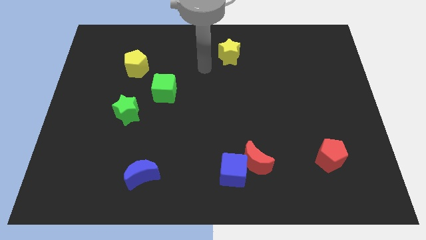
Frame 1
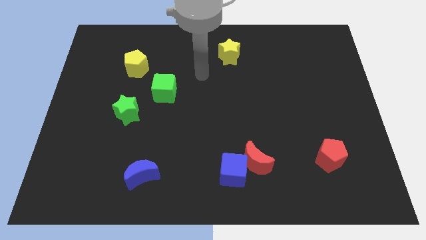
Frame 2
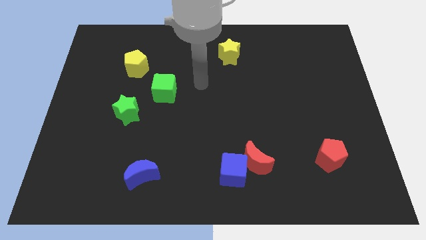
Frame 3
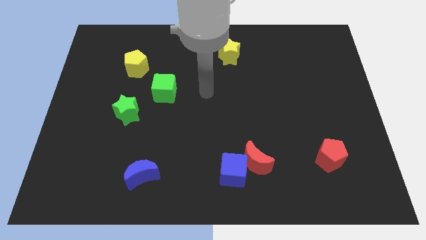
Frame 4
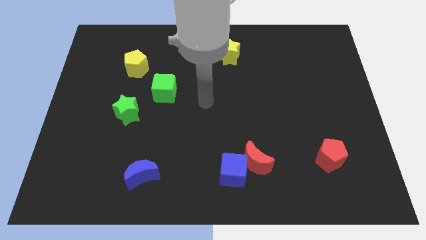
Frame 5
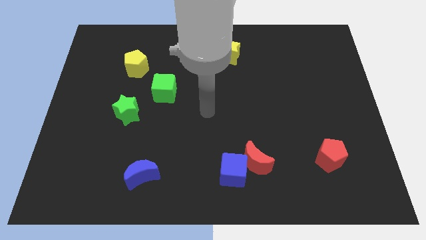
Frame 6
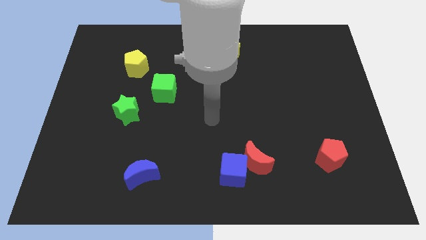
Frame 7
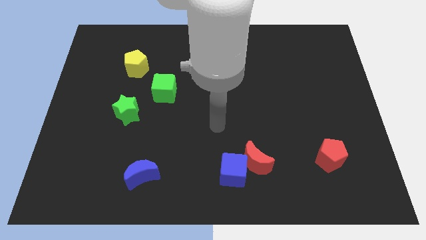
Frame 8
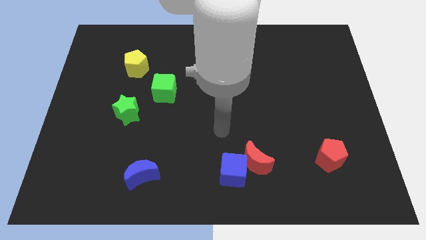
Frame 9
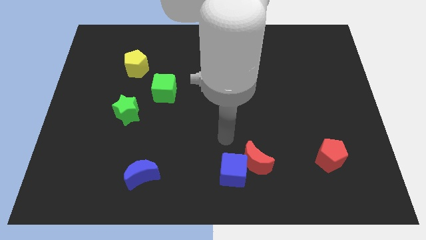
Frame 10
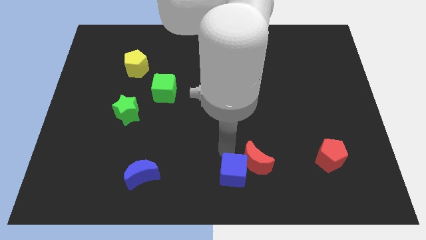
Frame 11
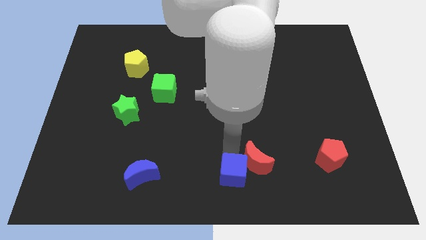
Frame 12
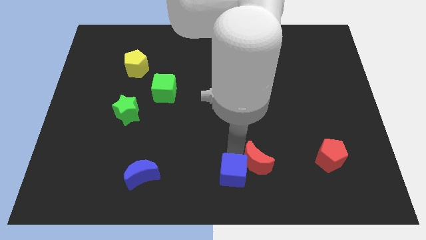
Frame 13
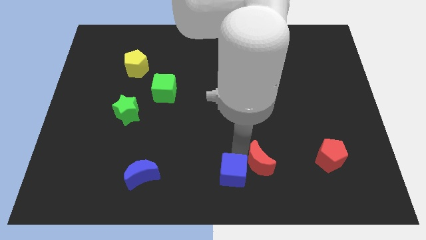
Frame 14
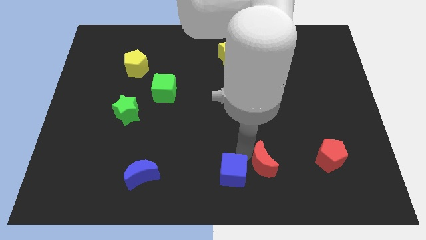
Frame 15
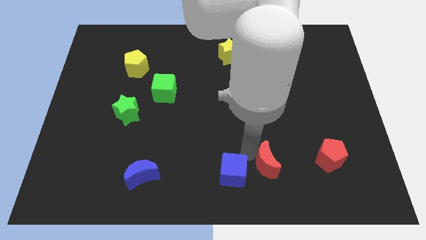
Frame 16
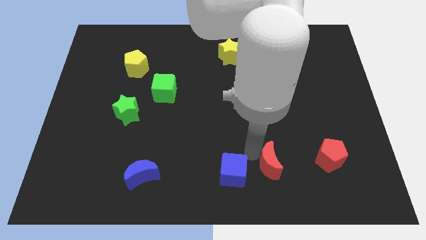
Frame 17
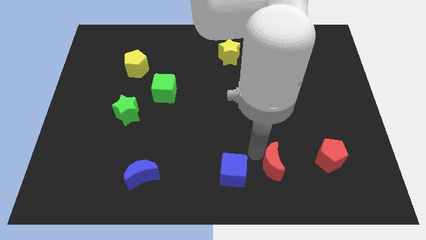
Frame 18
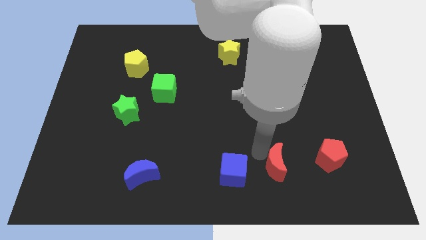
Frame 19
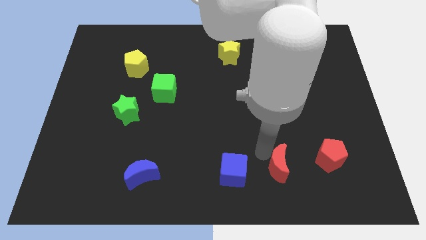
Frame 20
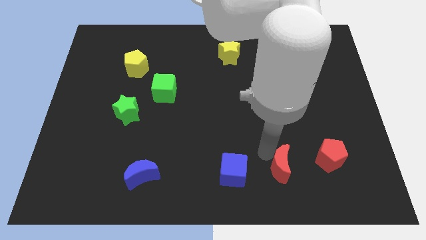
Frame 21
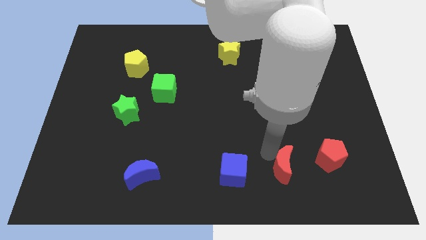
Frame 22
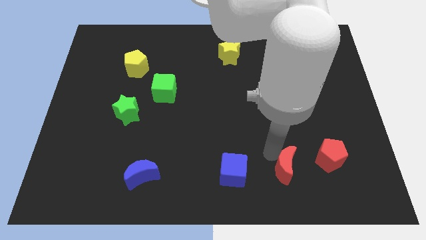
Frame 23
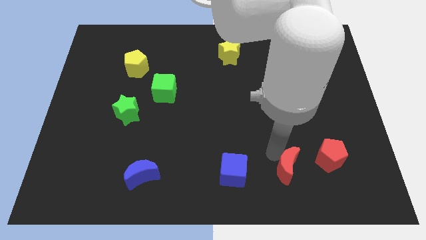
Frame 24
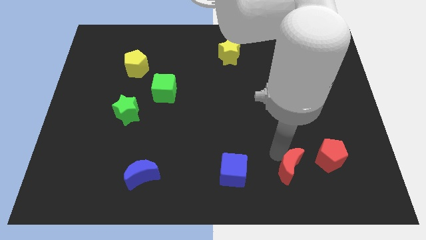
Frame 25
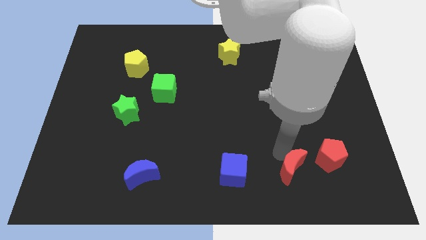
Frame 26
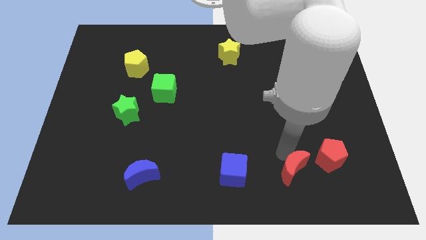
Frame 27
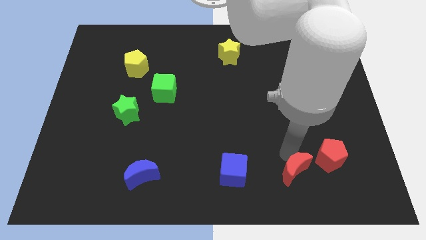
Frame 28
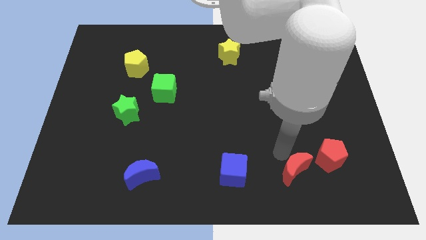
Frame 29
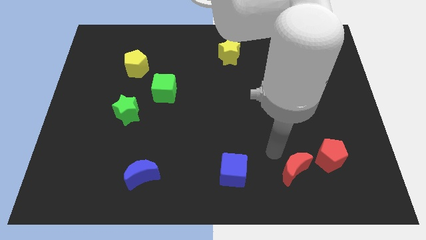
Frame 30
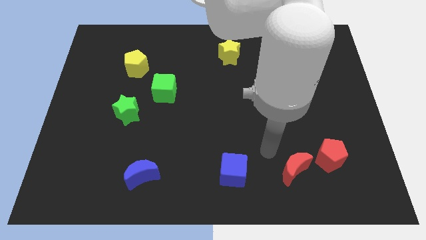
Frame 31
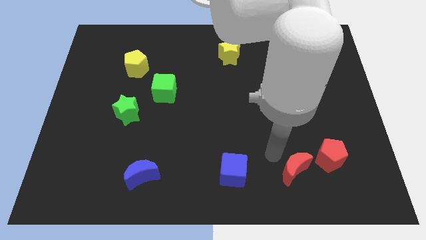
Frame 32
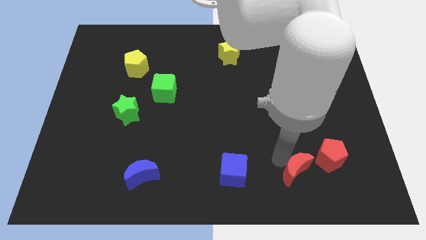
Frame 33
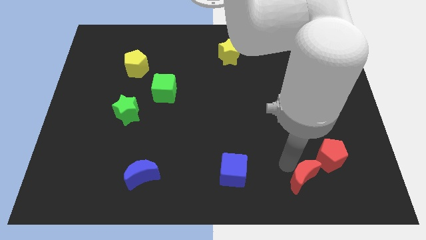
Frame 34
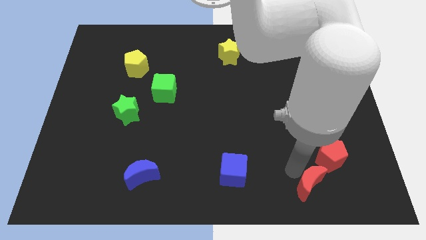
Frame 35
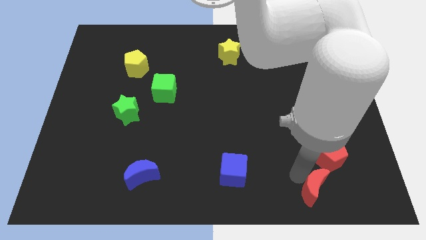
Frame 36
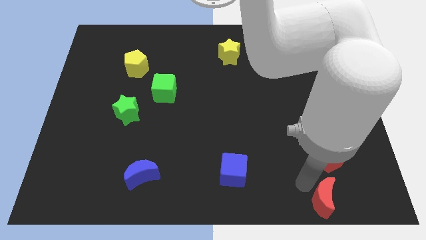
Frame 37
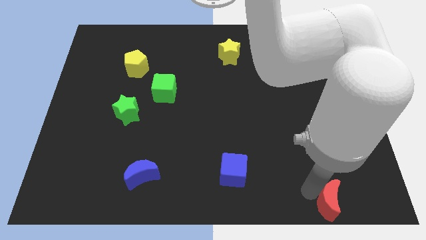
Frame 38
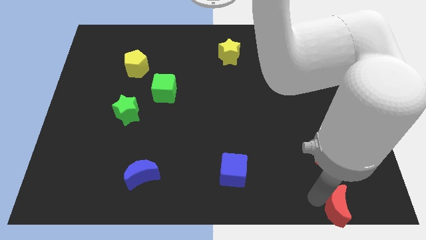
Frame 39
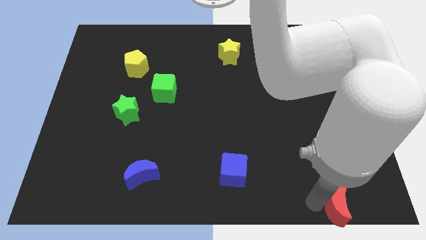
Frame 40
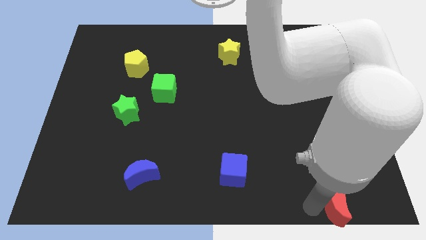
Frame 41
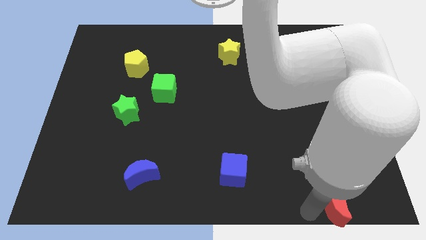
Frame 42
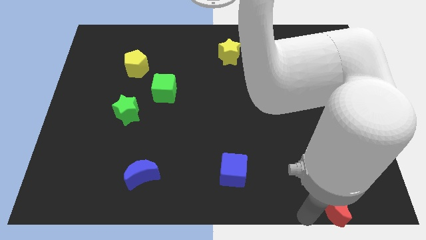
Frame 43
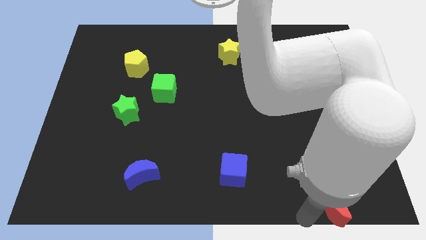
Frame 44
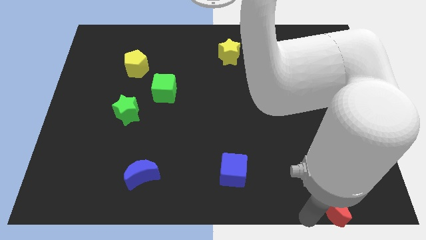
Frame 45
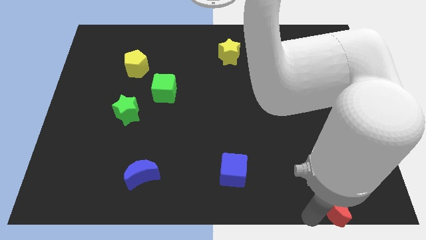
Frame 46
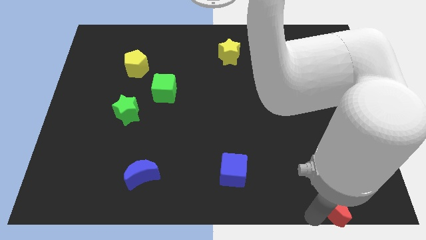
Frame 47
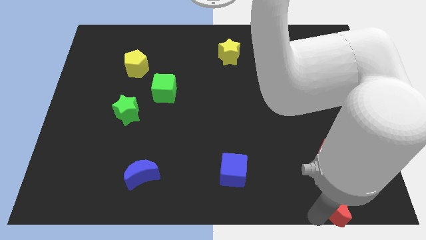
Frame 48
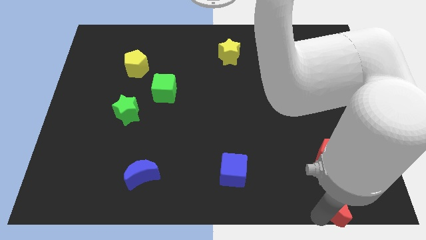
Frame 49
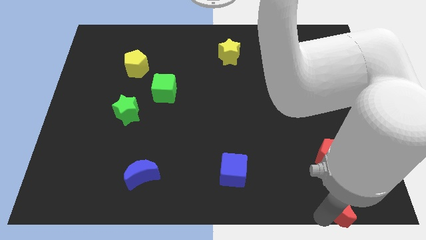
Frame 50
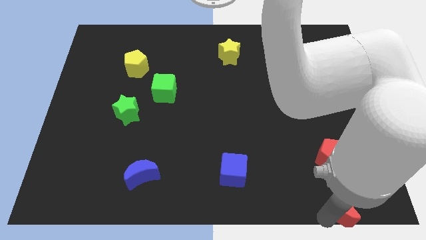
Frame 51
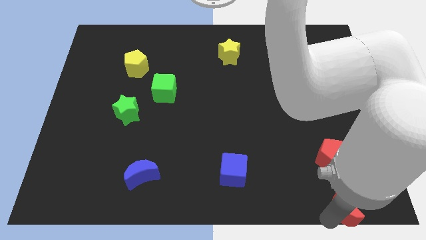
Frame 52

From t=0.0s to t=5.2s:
push the red moon to the bottom right

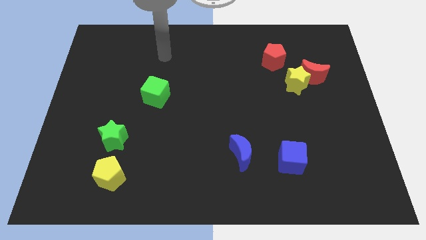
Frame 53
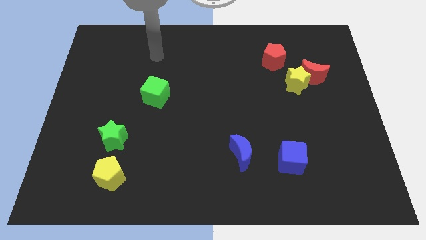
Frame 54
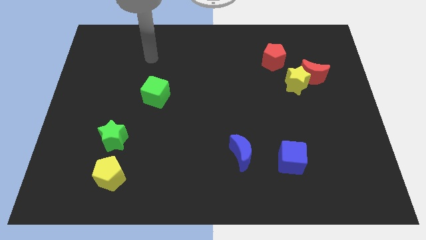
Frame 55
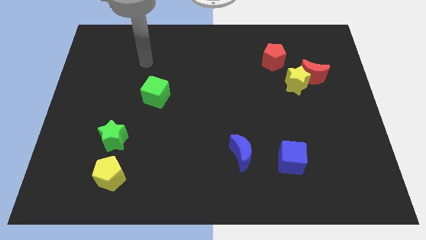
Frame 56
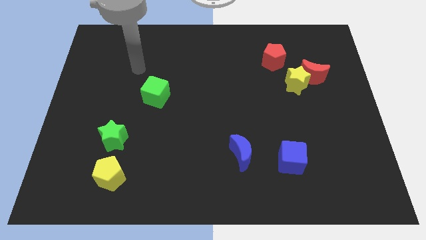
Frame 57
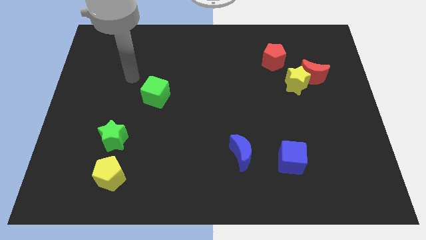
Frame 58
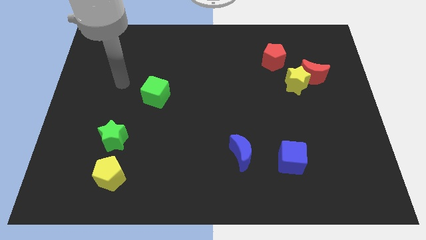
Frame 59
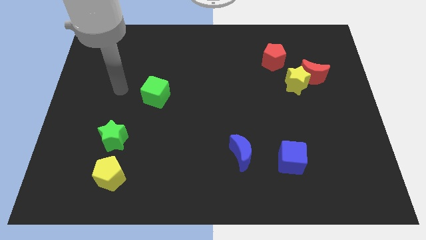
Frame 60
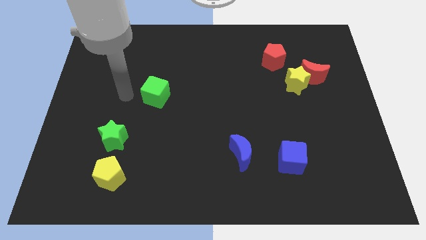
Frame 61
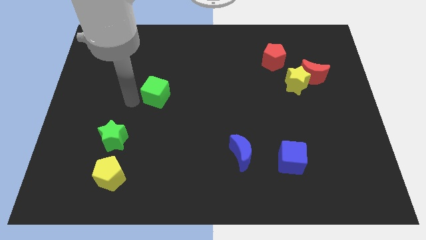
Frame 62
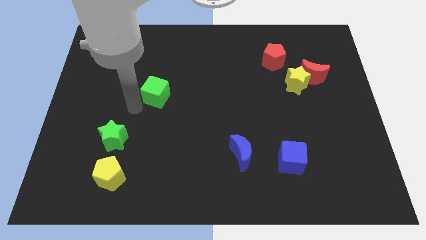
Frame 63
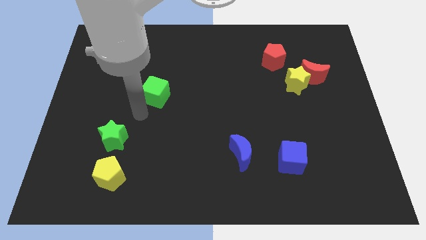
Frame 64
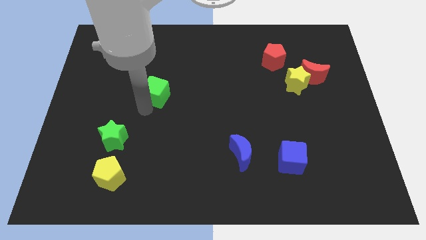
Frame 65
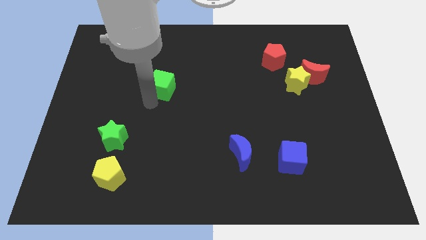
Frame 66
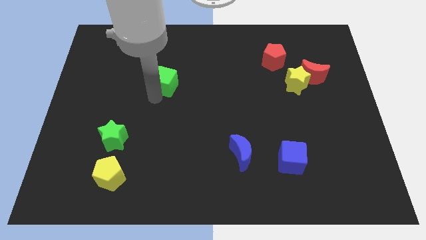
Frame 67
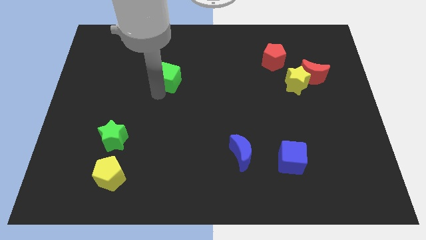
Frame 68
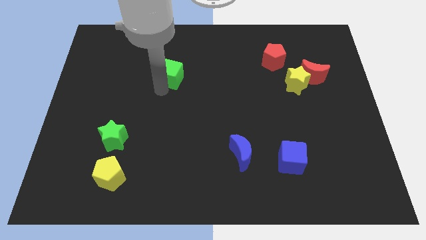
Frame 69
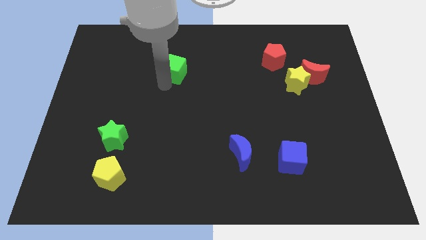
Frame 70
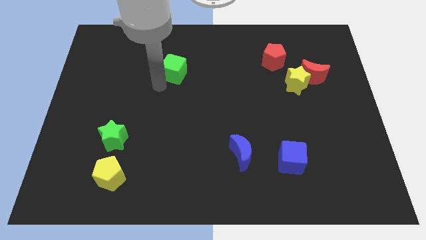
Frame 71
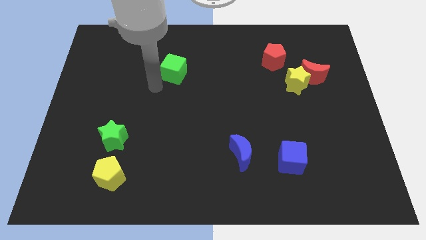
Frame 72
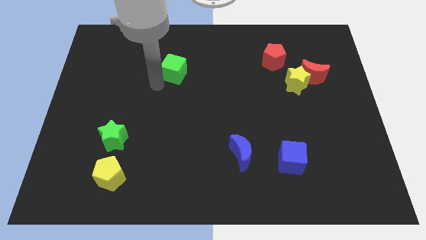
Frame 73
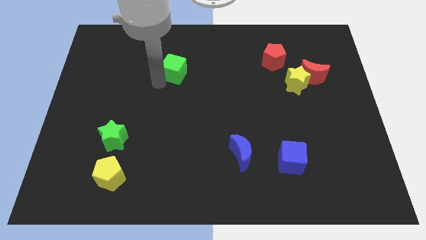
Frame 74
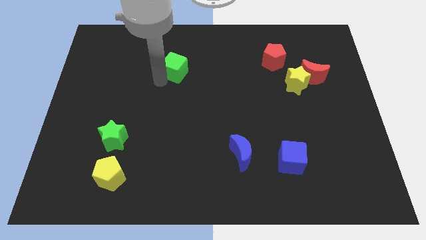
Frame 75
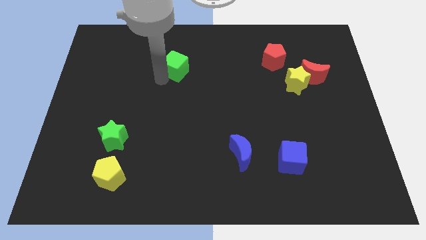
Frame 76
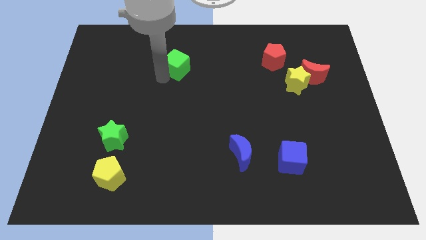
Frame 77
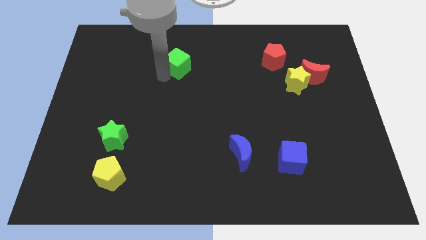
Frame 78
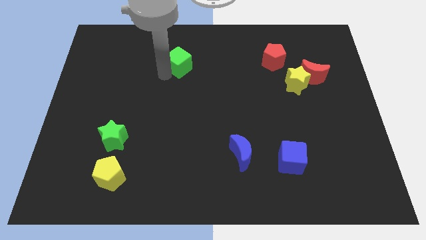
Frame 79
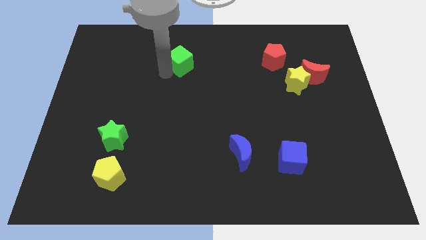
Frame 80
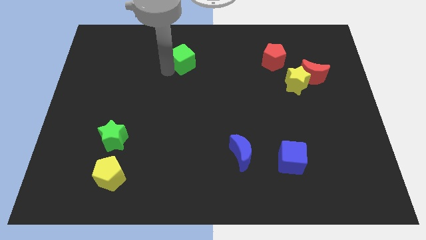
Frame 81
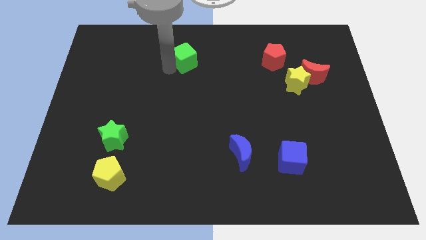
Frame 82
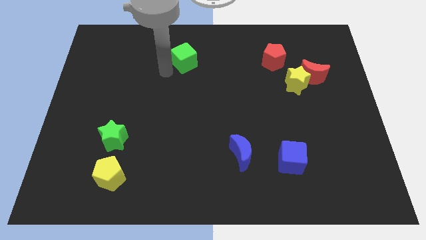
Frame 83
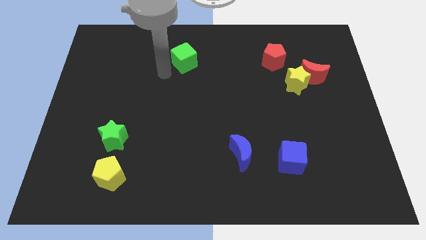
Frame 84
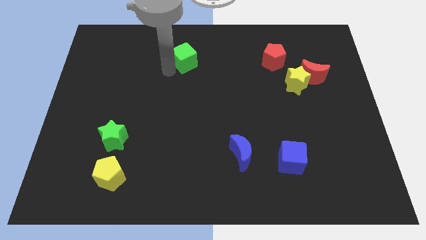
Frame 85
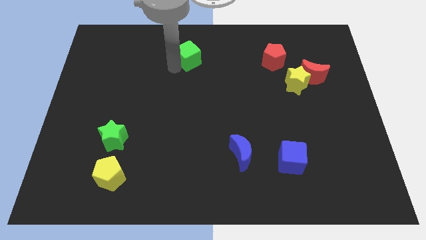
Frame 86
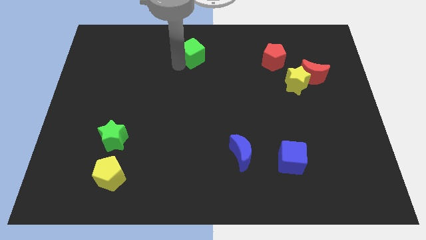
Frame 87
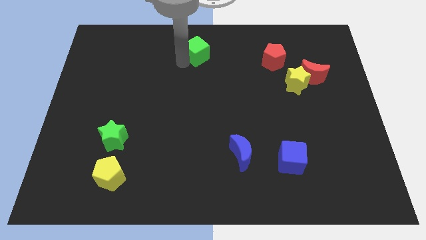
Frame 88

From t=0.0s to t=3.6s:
slide the green cube to the towards your base
